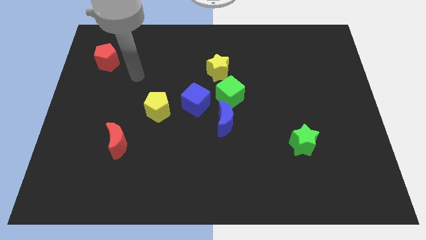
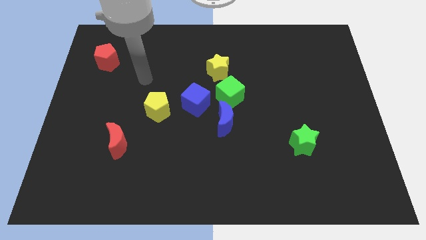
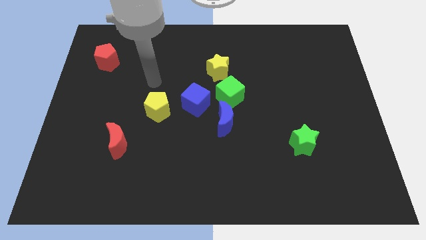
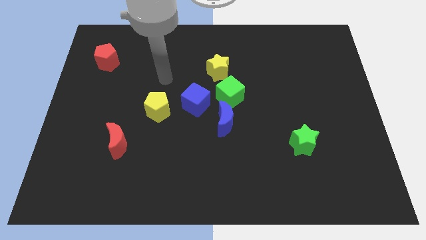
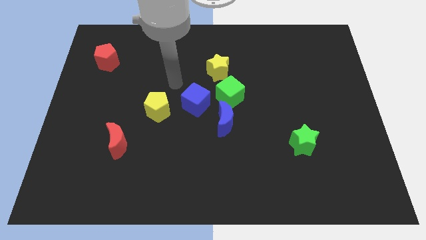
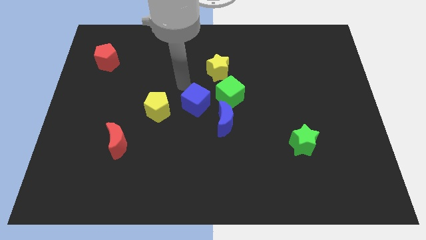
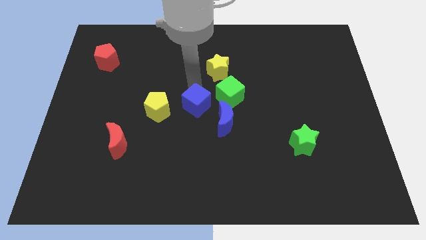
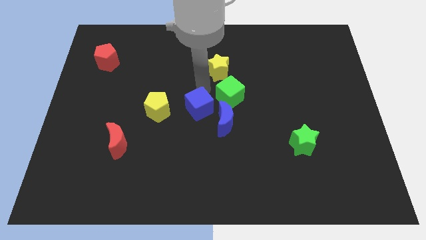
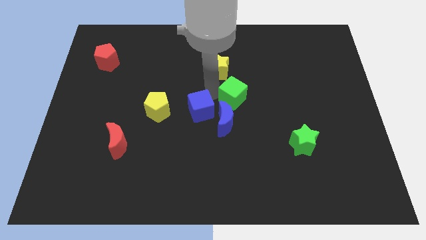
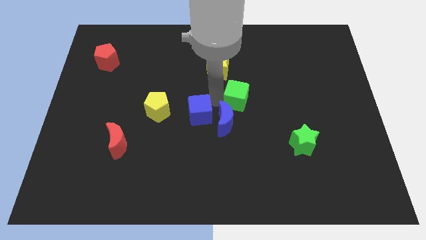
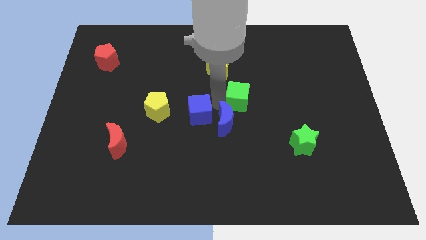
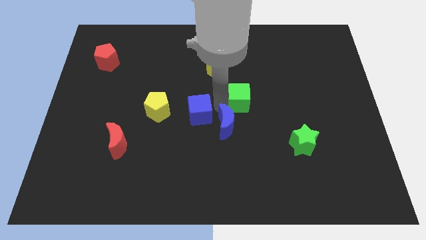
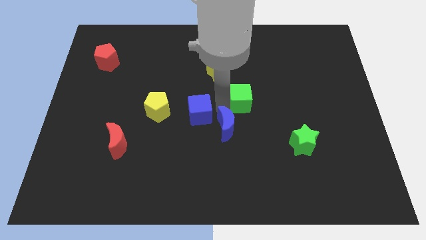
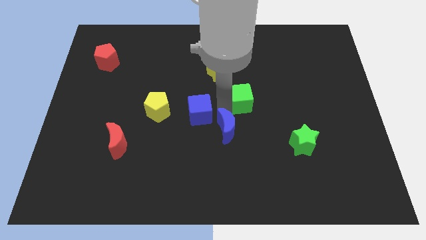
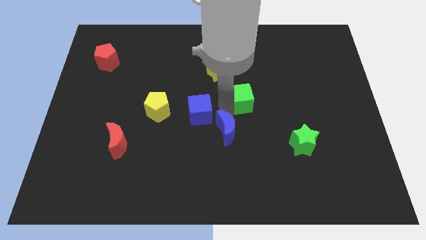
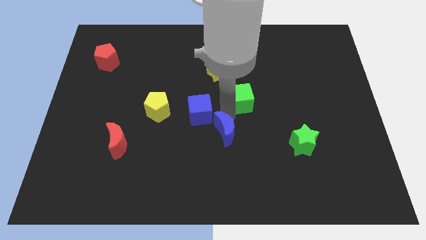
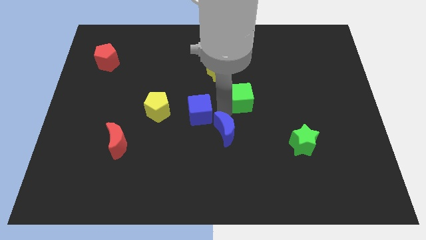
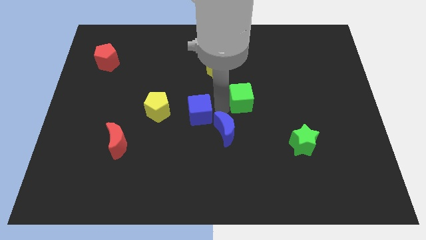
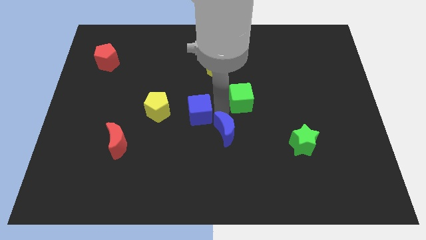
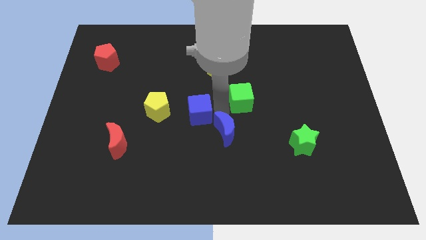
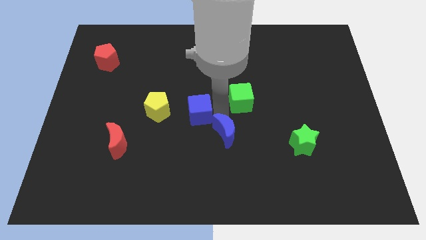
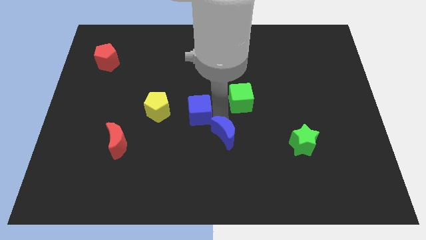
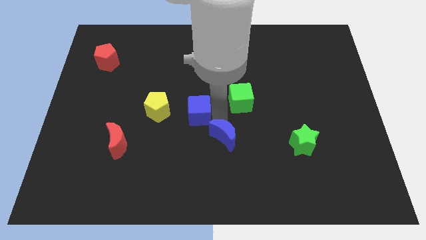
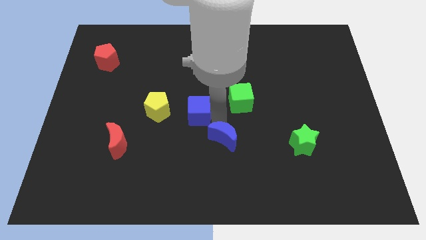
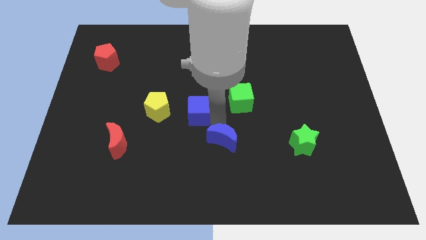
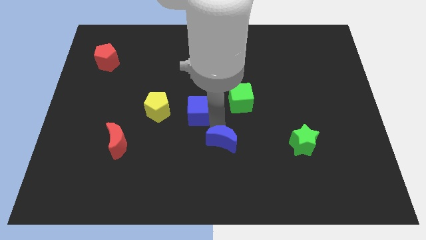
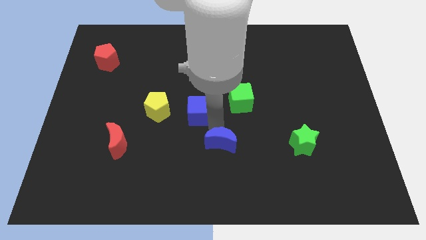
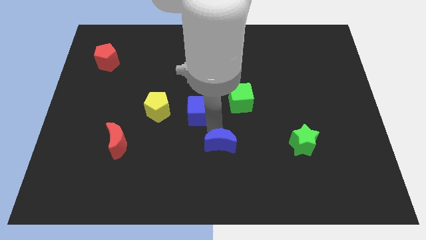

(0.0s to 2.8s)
separate the blue moon from the green cube and blue cube

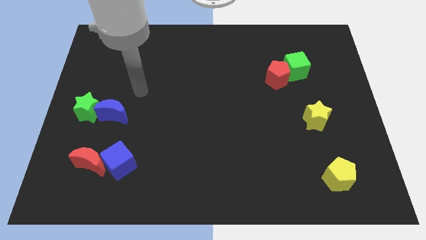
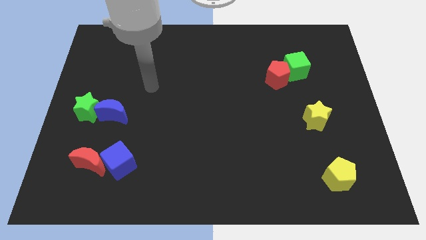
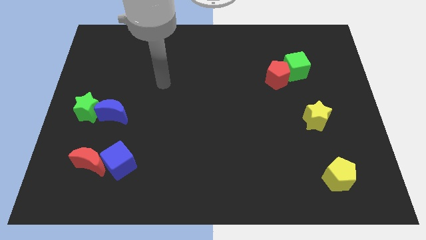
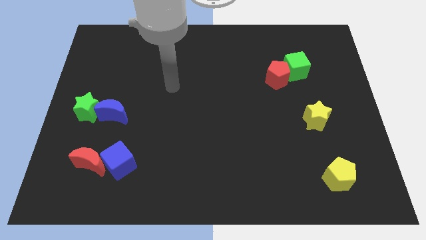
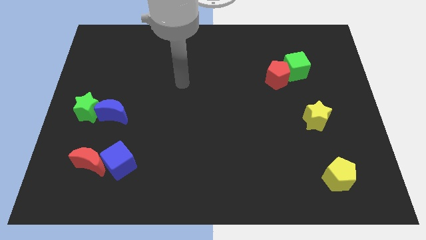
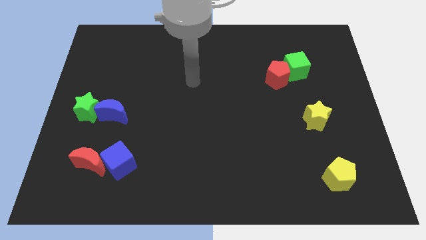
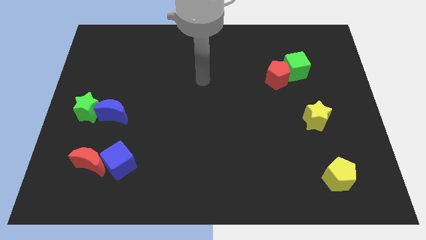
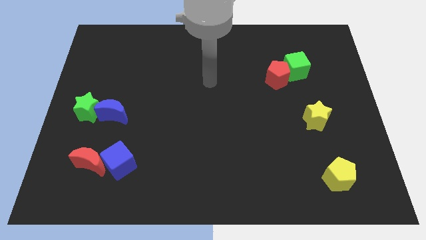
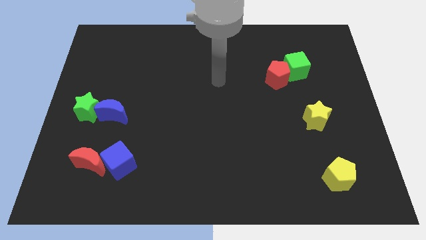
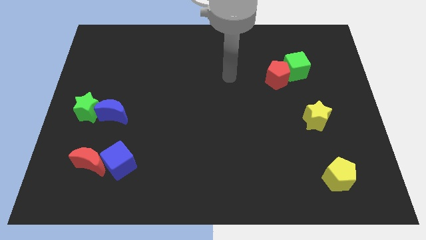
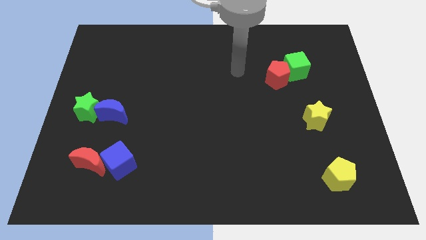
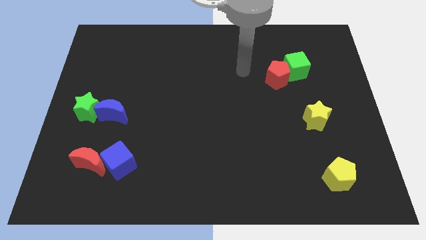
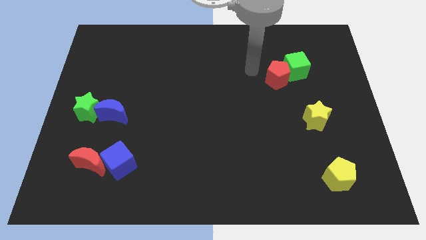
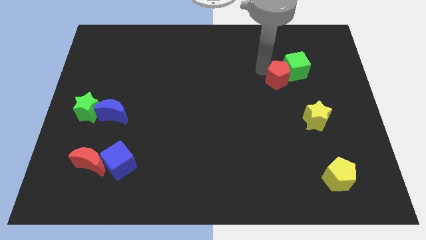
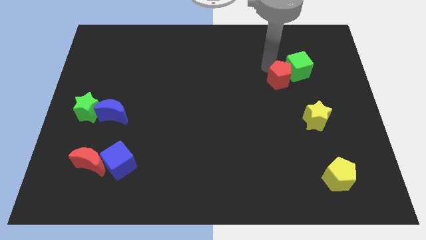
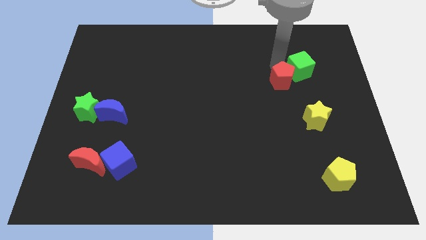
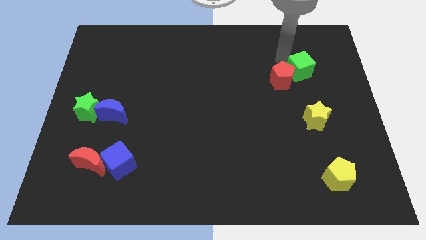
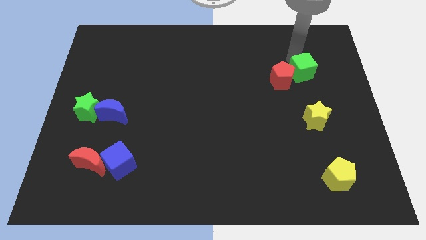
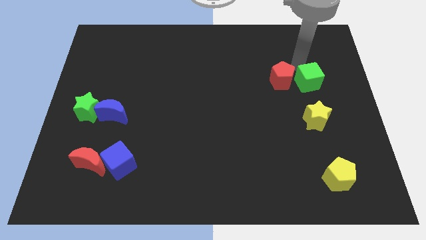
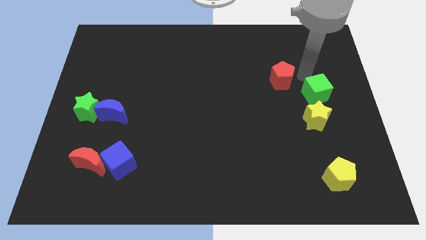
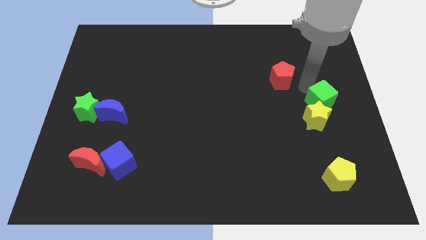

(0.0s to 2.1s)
move the red pentagon away from the green cube

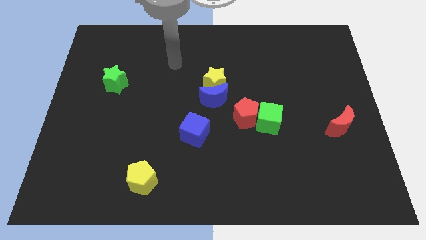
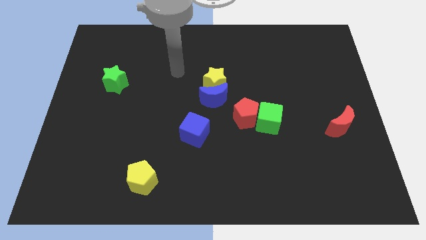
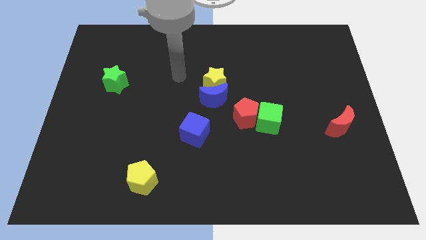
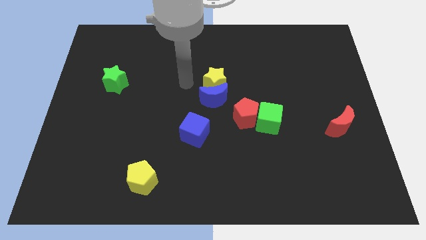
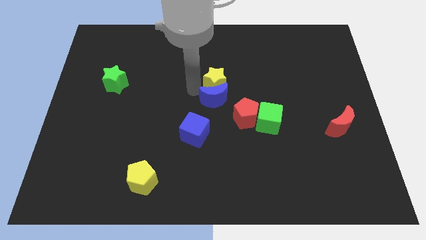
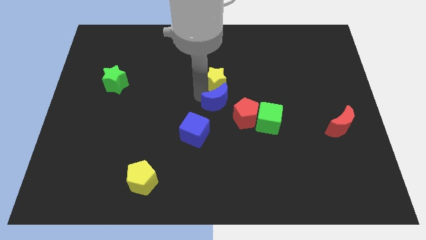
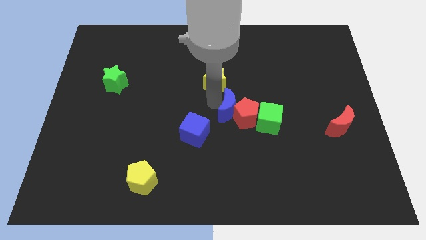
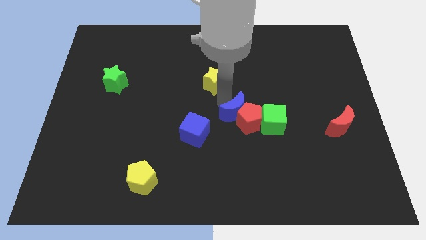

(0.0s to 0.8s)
move the yellow star away from the blue moon

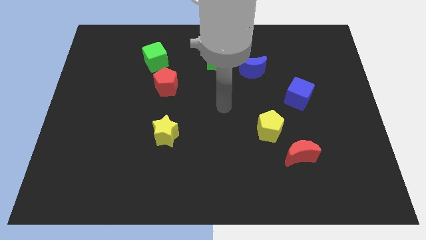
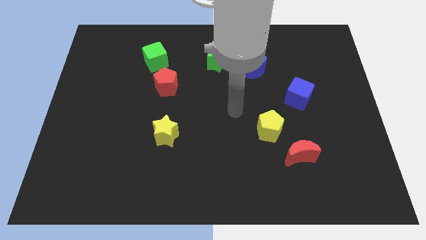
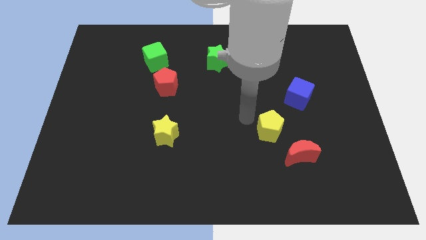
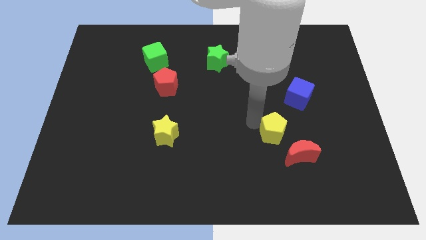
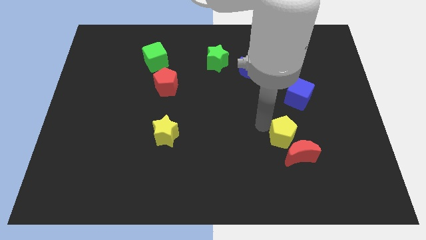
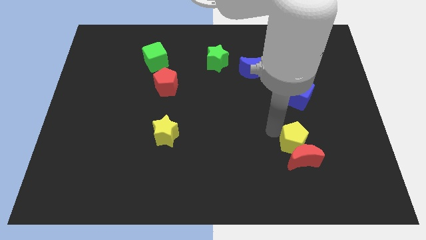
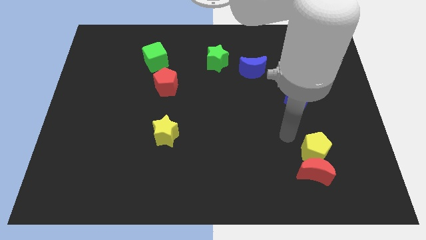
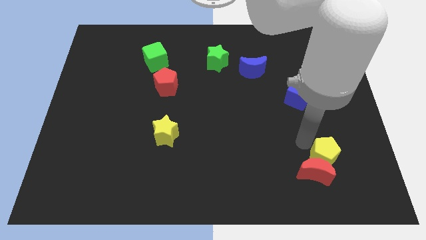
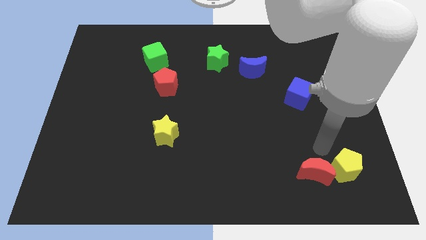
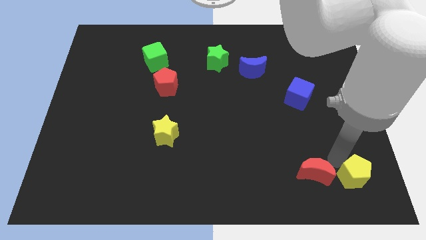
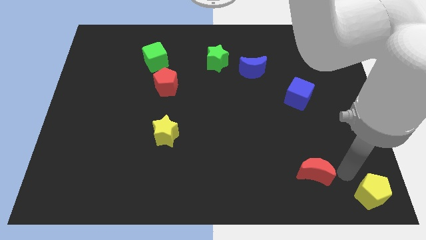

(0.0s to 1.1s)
move the red moon away from the yellow pentagon

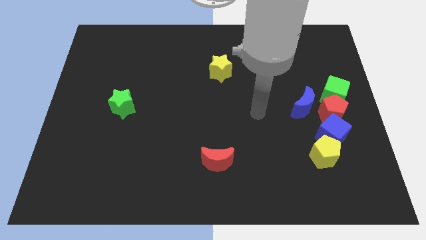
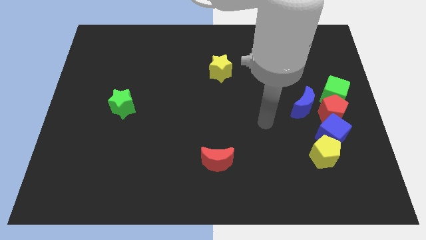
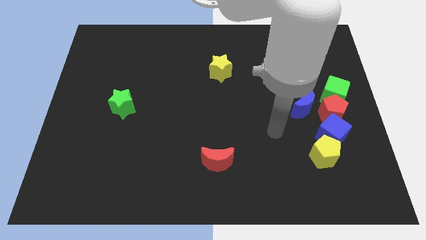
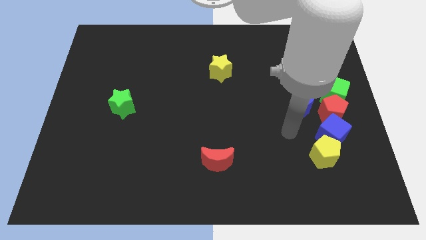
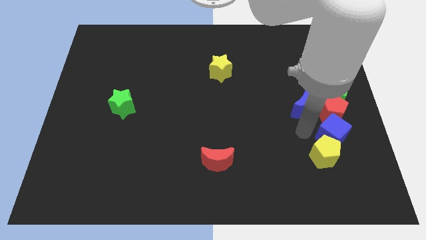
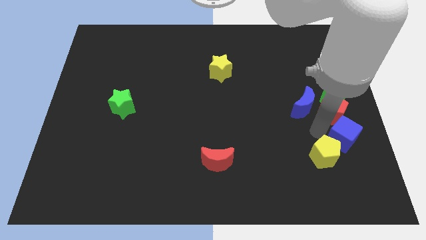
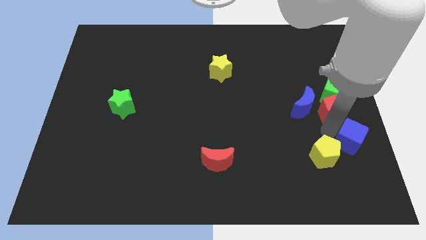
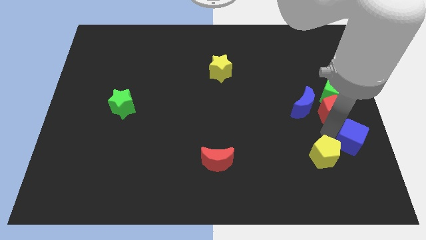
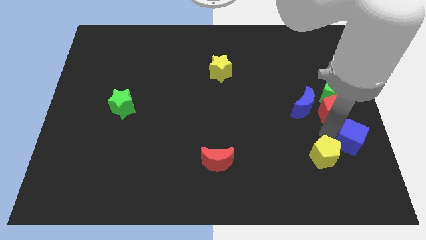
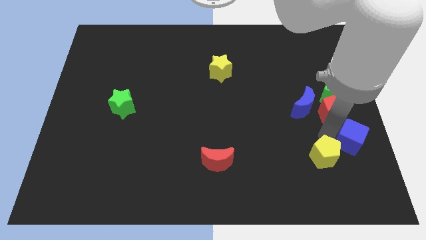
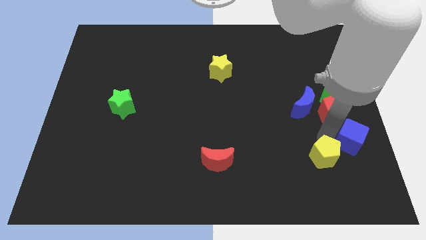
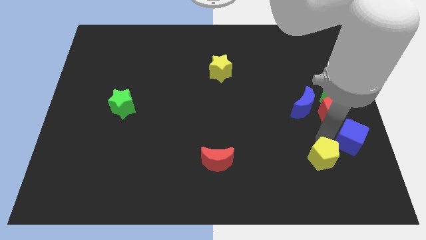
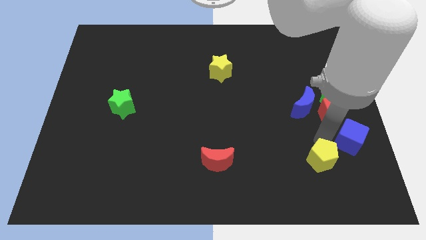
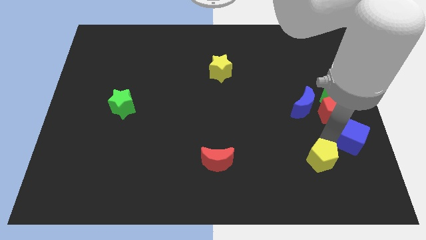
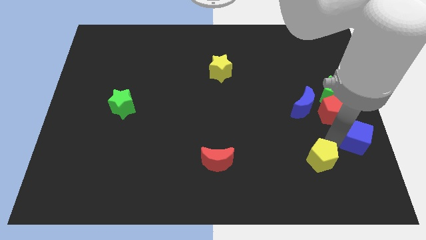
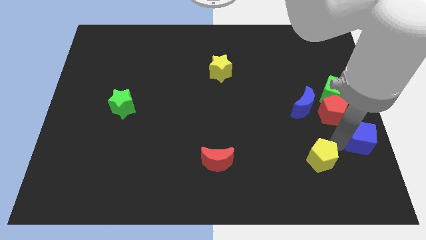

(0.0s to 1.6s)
separate the yellow pentagon from the blue cube

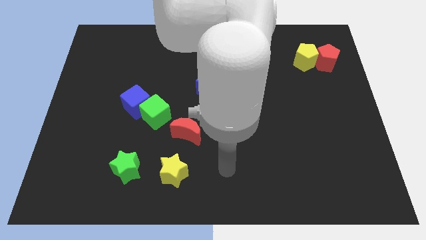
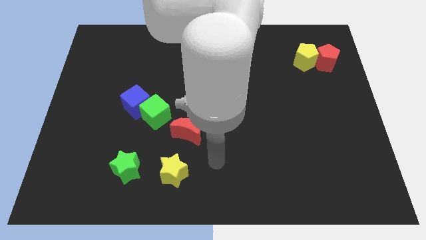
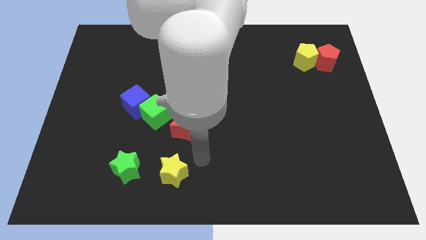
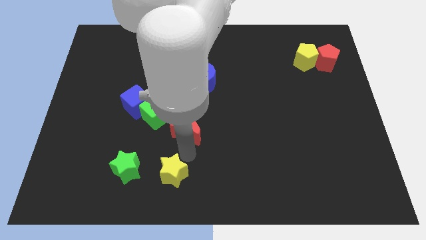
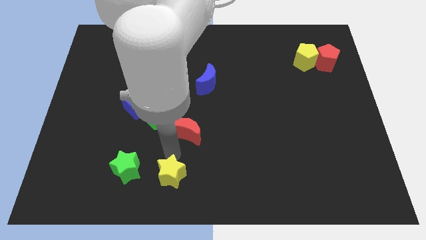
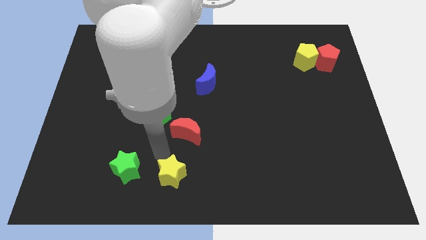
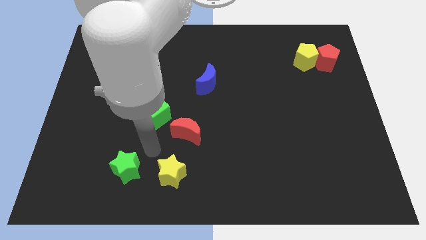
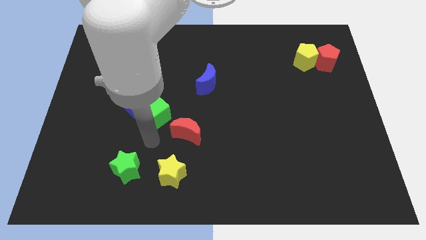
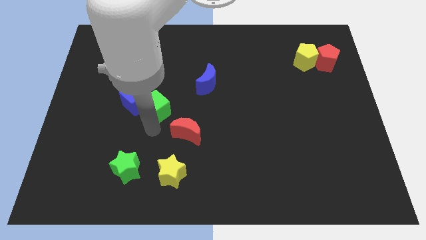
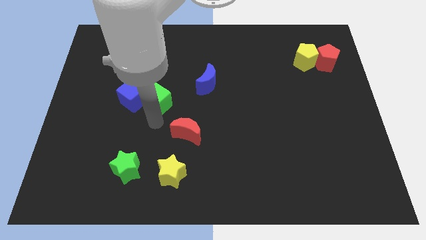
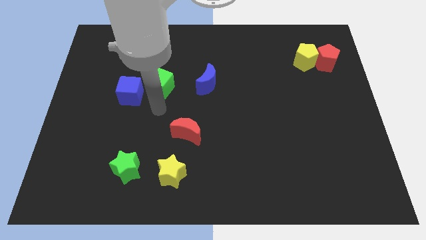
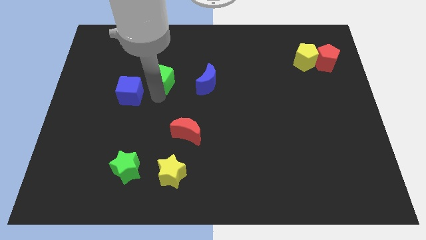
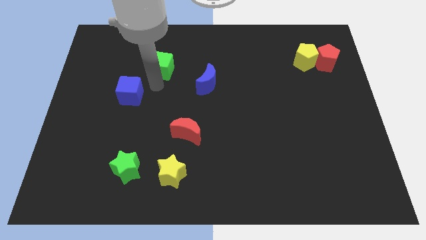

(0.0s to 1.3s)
separate the blue cube from the green cube
